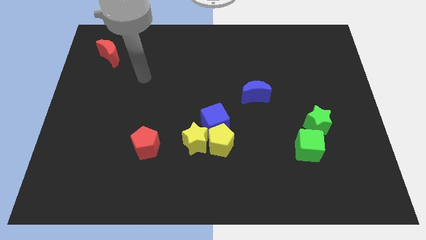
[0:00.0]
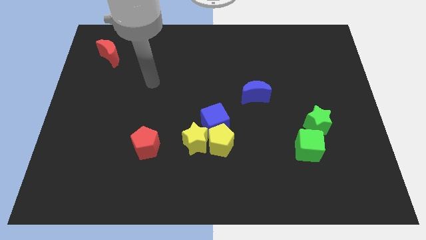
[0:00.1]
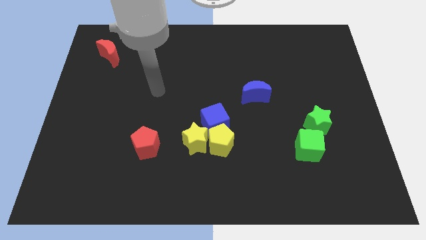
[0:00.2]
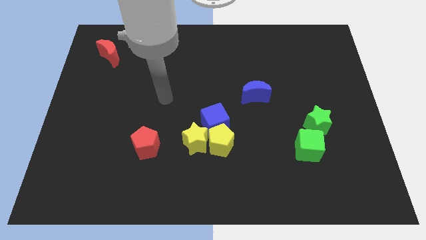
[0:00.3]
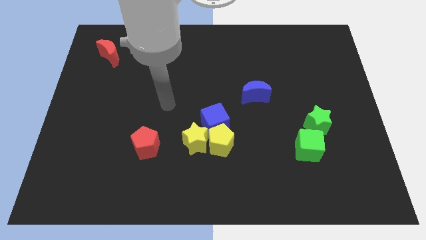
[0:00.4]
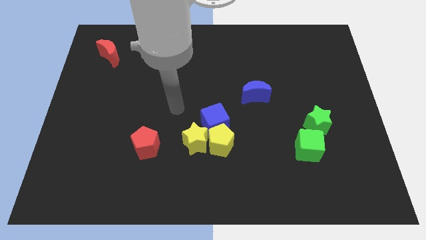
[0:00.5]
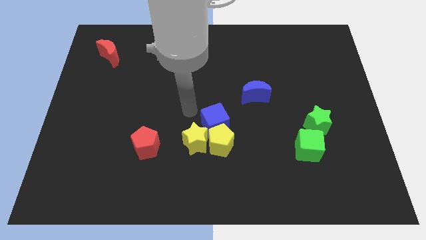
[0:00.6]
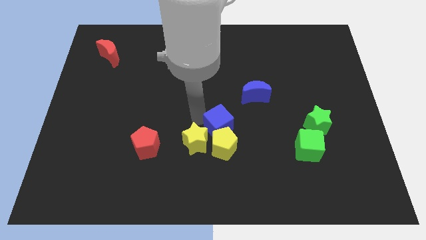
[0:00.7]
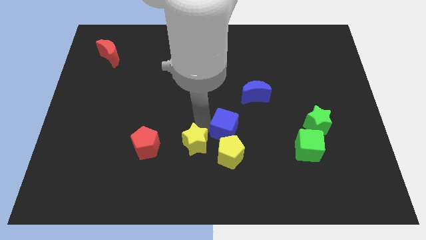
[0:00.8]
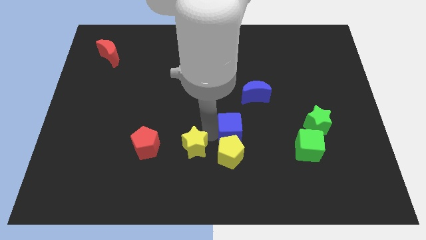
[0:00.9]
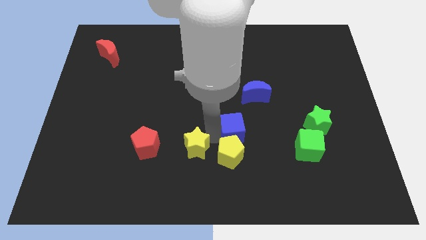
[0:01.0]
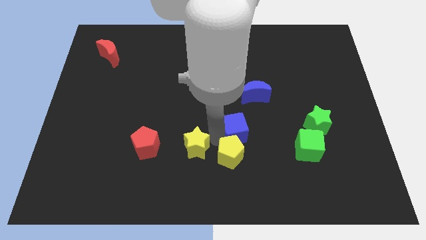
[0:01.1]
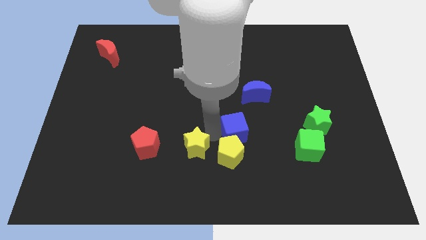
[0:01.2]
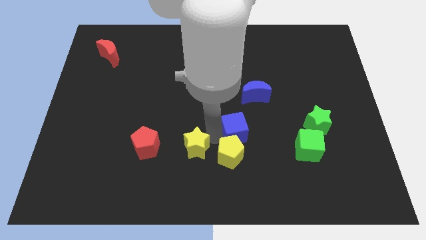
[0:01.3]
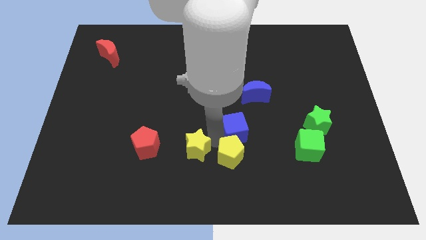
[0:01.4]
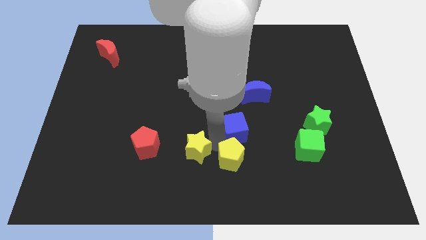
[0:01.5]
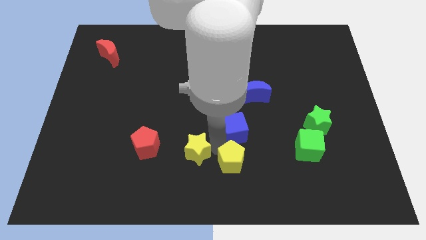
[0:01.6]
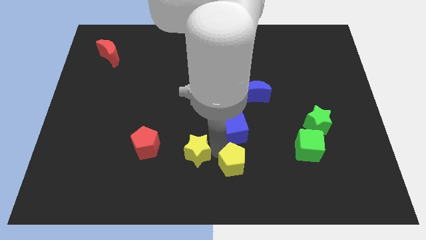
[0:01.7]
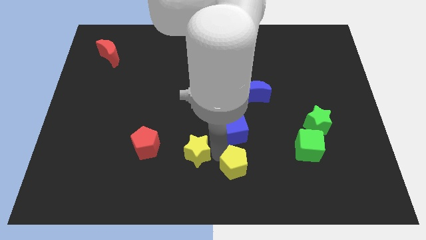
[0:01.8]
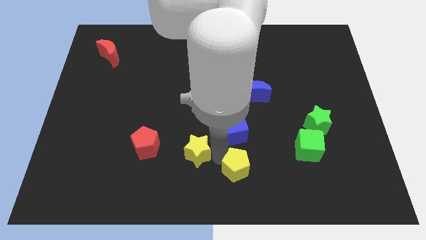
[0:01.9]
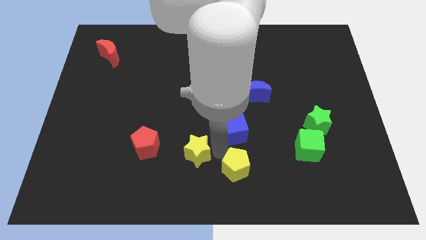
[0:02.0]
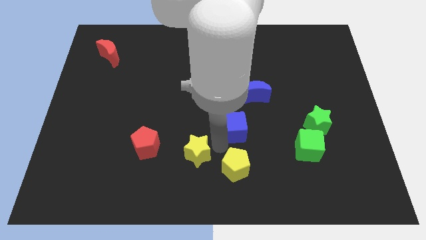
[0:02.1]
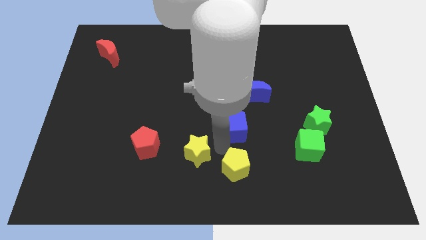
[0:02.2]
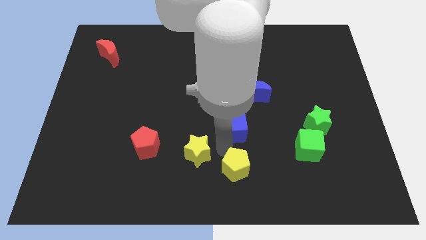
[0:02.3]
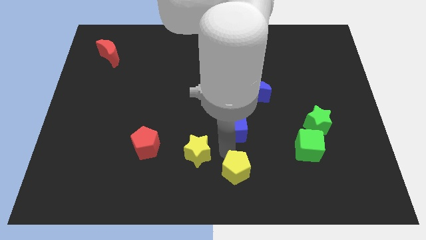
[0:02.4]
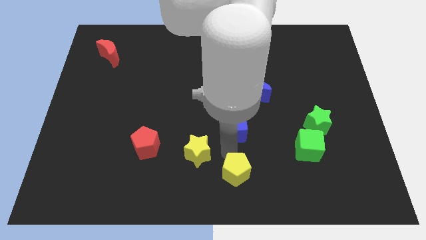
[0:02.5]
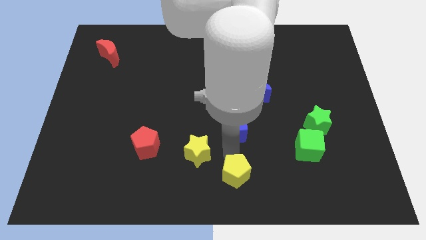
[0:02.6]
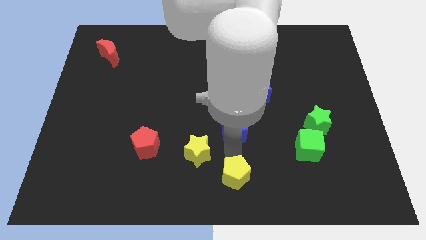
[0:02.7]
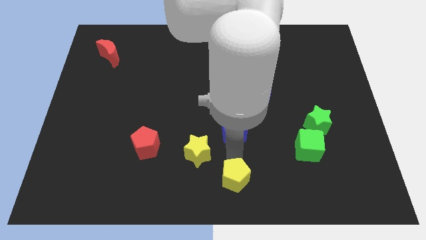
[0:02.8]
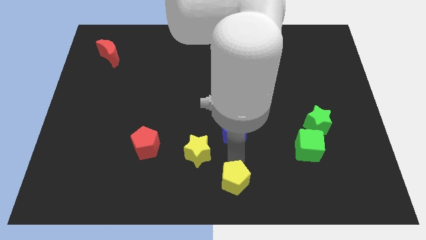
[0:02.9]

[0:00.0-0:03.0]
move the yellow pentagon away from the yellow star and blue cube

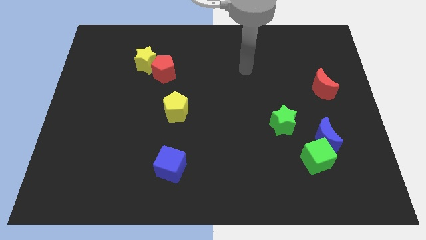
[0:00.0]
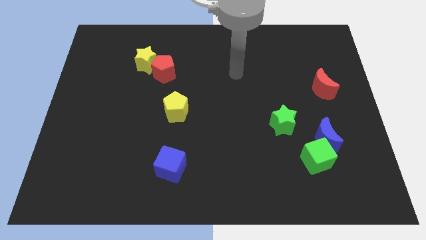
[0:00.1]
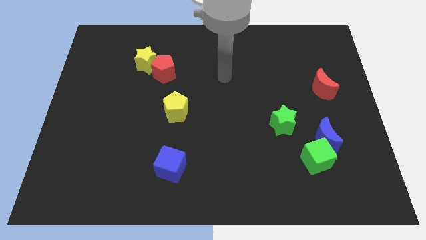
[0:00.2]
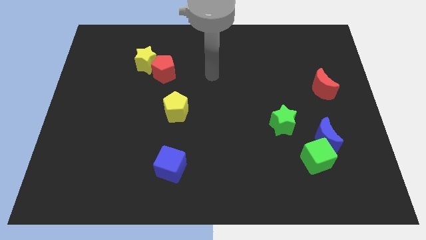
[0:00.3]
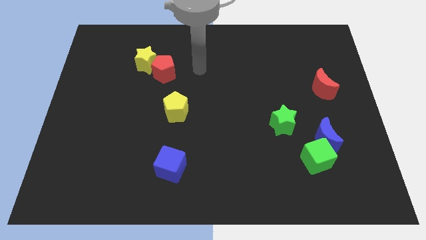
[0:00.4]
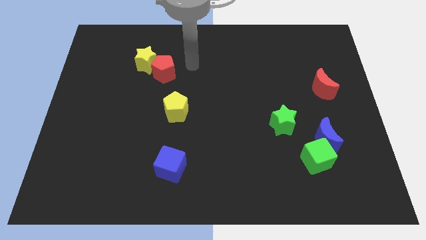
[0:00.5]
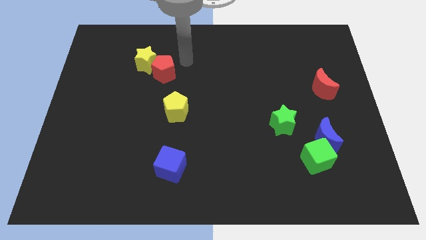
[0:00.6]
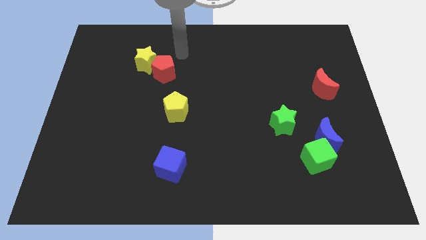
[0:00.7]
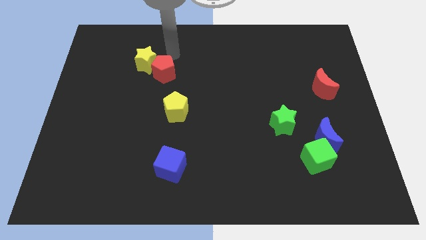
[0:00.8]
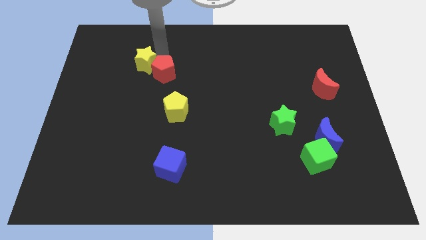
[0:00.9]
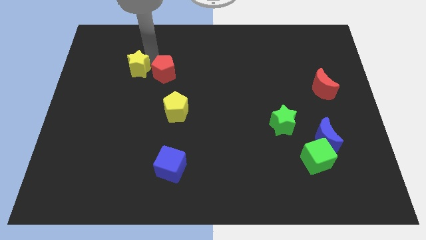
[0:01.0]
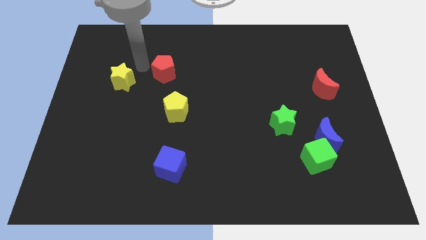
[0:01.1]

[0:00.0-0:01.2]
move the red pentagon away from the yellow star

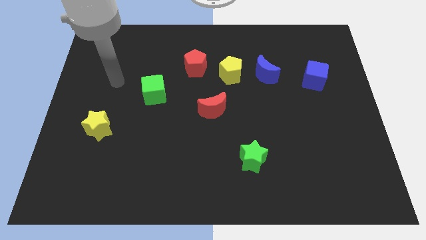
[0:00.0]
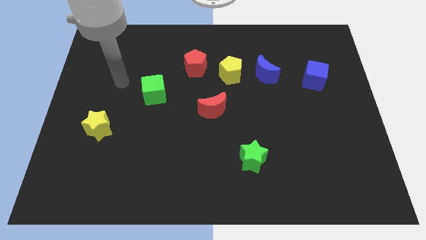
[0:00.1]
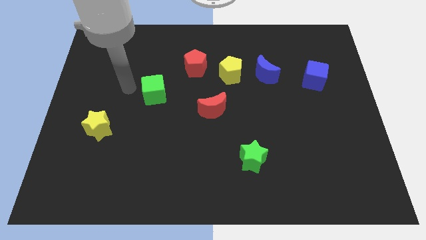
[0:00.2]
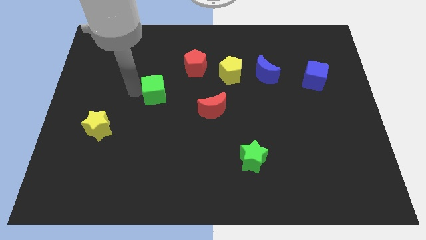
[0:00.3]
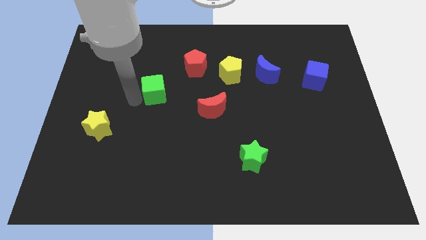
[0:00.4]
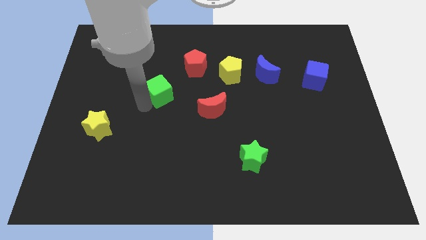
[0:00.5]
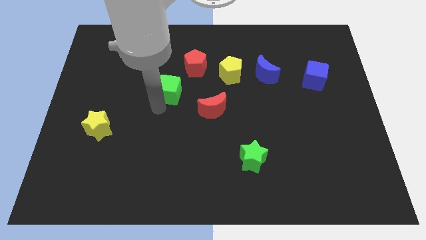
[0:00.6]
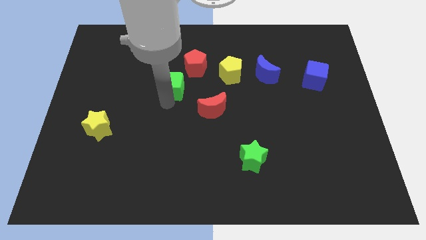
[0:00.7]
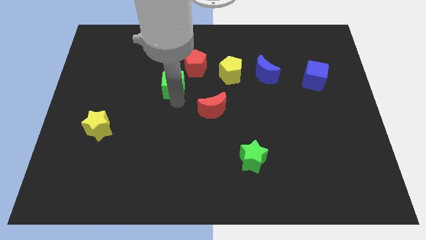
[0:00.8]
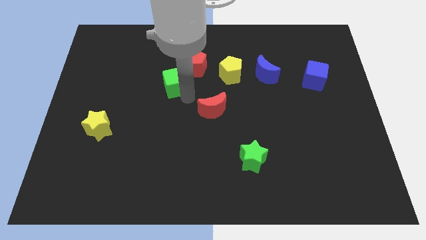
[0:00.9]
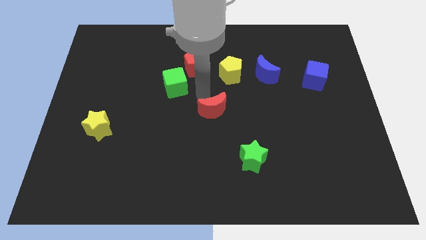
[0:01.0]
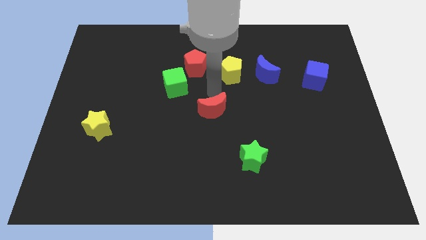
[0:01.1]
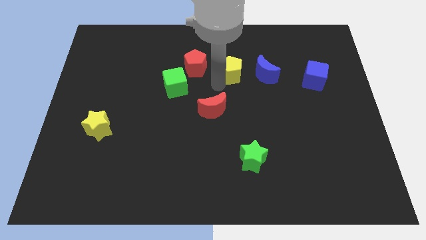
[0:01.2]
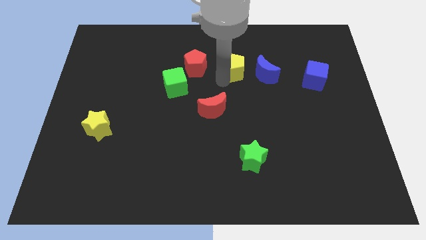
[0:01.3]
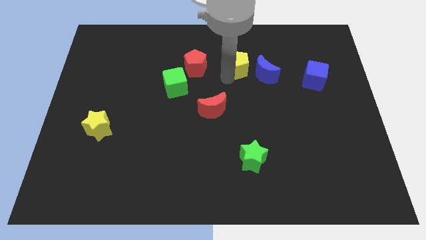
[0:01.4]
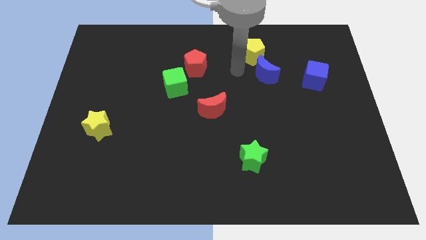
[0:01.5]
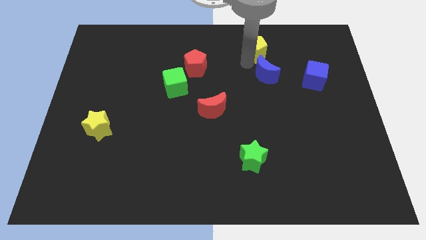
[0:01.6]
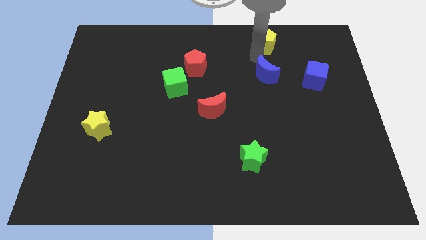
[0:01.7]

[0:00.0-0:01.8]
move the blue moon away from the yellow pentagon

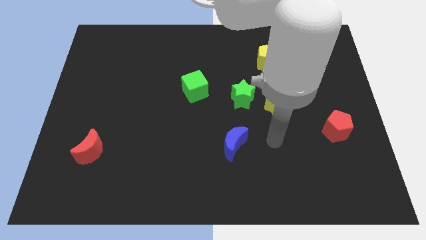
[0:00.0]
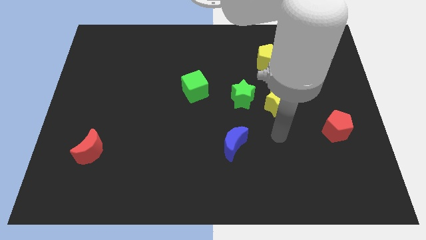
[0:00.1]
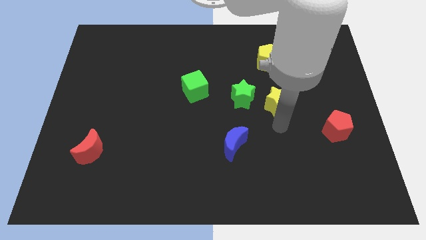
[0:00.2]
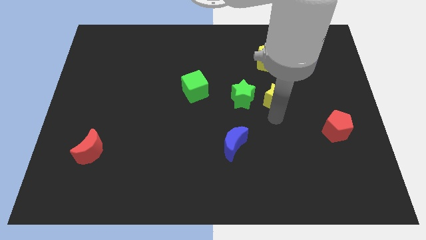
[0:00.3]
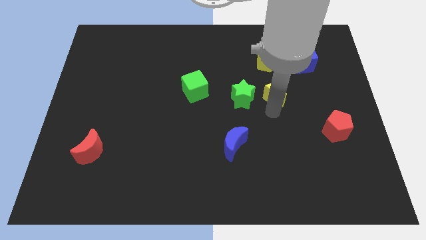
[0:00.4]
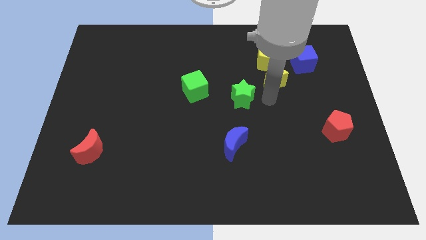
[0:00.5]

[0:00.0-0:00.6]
separate the green star from the yellow star

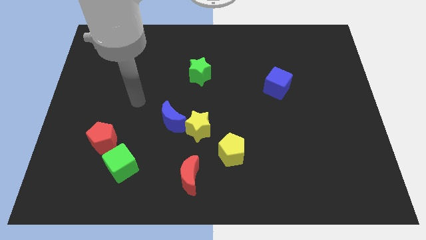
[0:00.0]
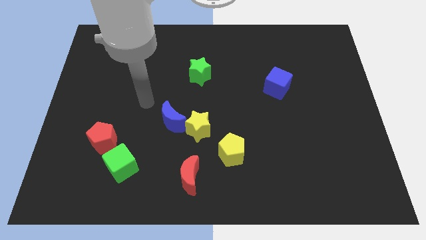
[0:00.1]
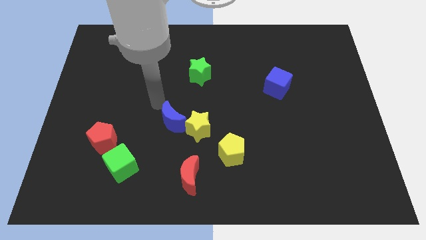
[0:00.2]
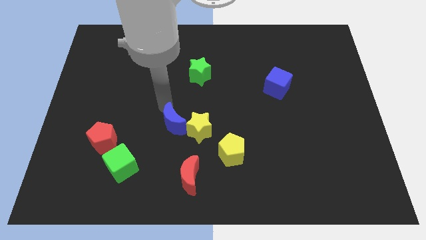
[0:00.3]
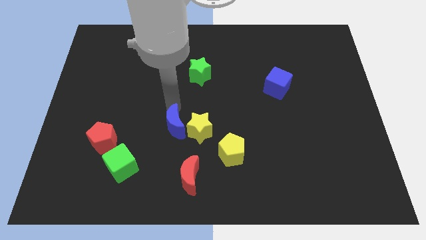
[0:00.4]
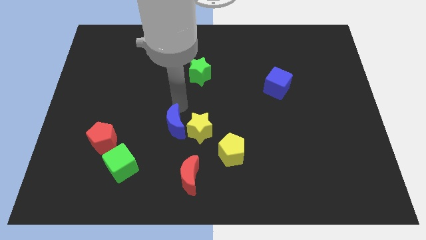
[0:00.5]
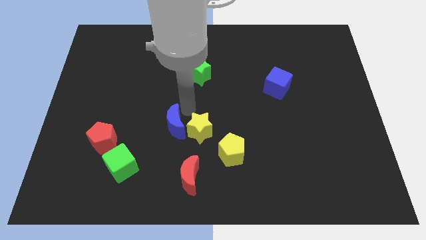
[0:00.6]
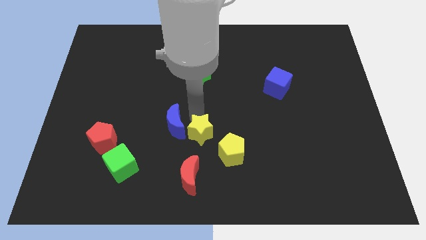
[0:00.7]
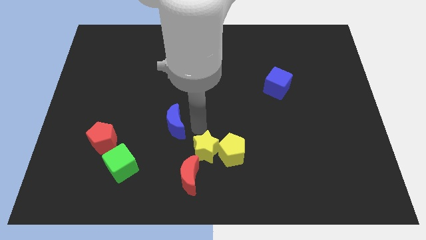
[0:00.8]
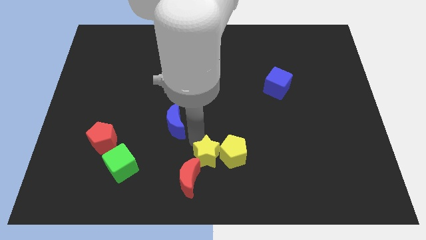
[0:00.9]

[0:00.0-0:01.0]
separate the blue moon from the yellow star

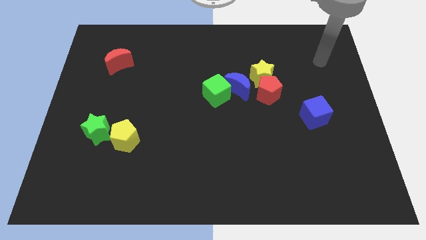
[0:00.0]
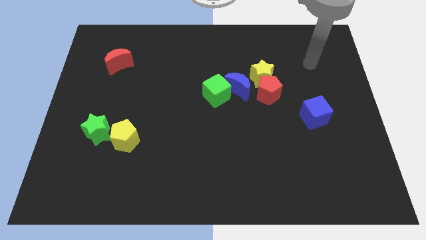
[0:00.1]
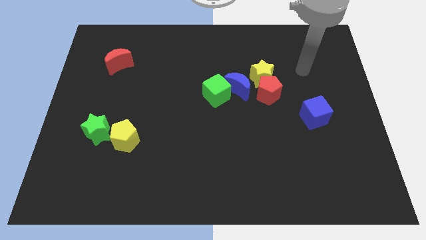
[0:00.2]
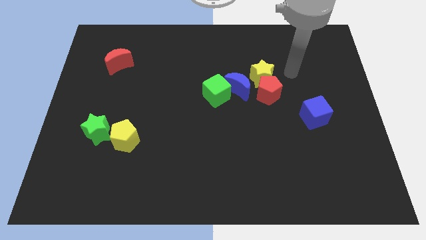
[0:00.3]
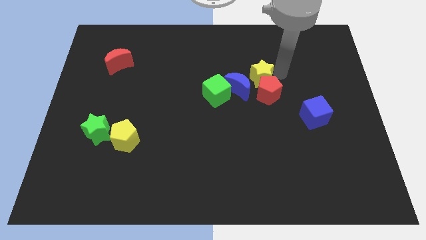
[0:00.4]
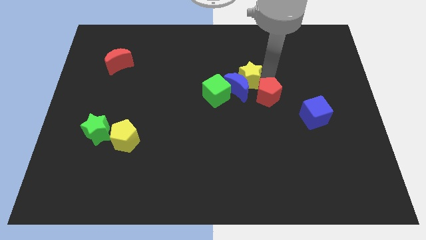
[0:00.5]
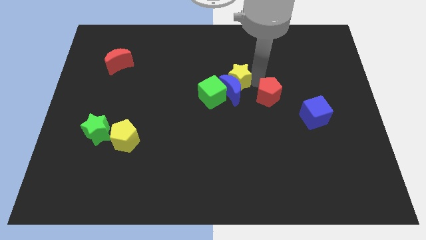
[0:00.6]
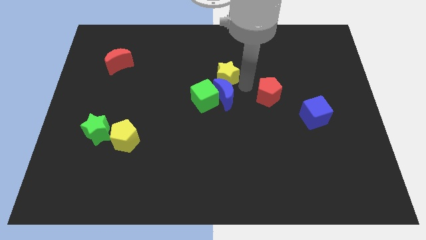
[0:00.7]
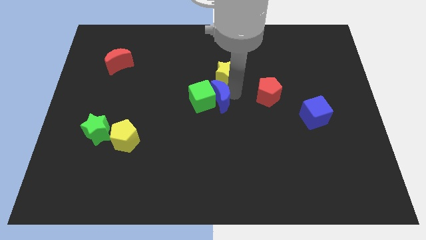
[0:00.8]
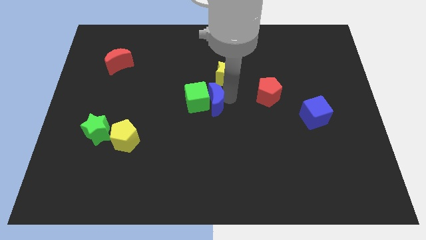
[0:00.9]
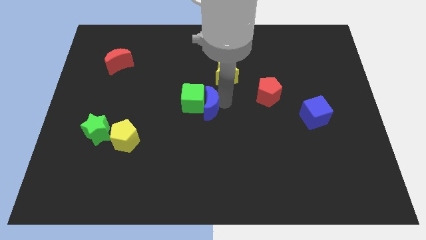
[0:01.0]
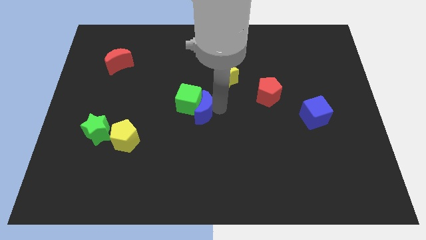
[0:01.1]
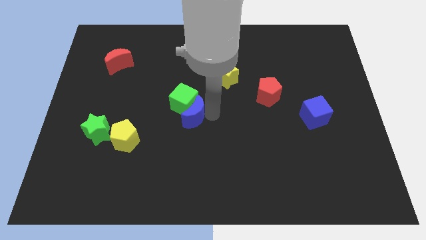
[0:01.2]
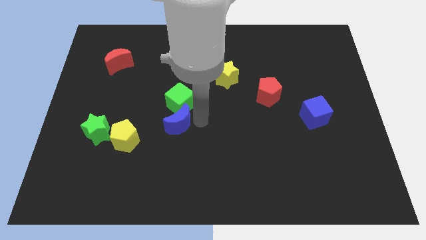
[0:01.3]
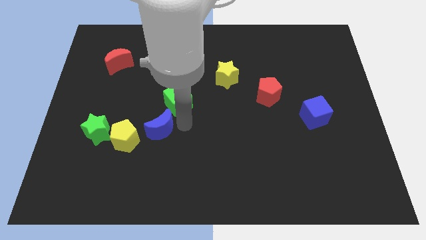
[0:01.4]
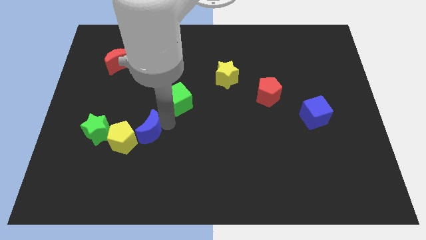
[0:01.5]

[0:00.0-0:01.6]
move the green cube away from the blue moon
